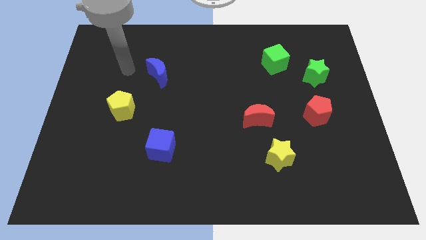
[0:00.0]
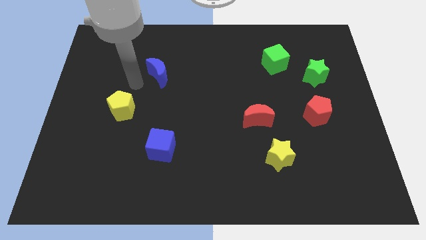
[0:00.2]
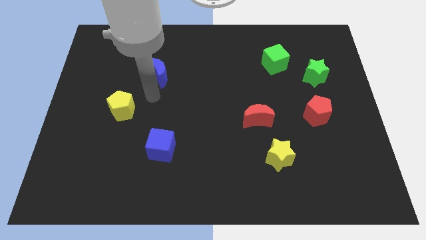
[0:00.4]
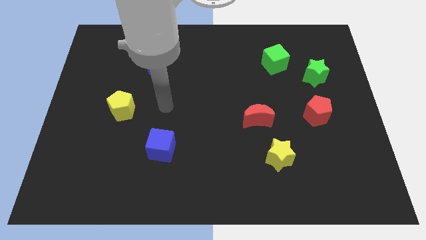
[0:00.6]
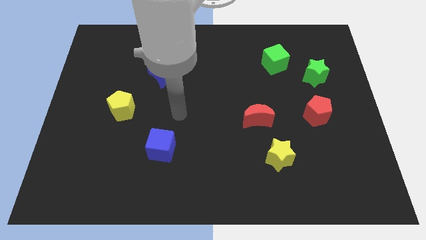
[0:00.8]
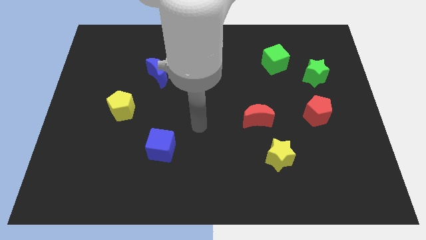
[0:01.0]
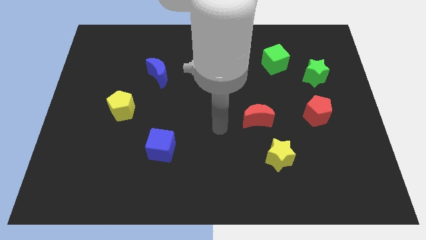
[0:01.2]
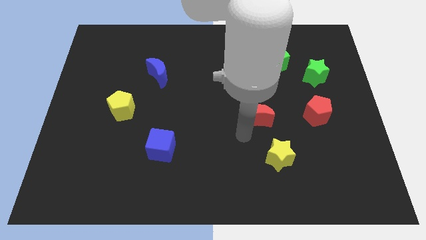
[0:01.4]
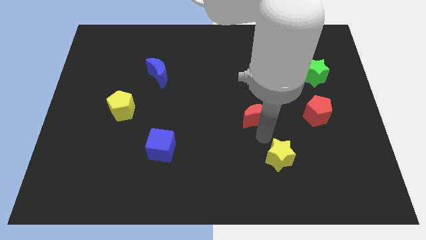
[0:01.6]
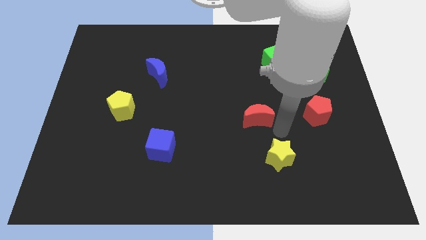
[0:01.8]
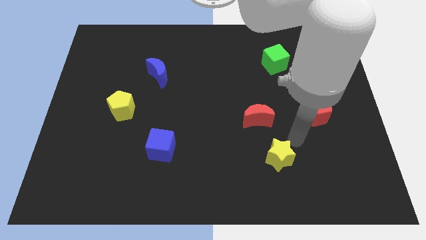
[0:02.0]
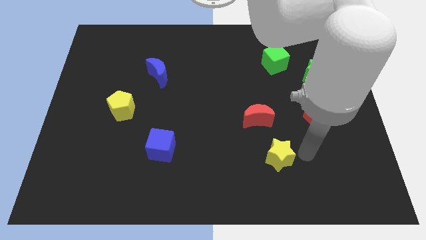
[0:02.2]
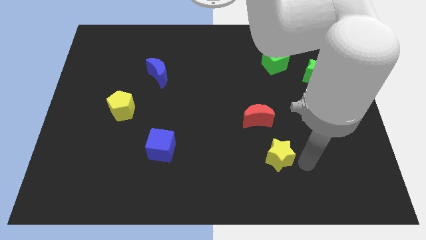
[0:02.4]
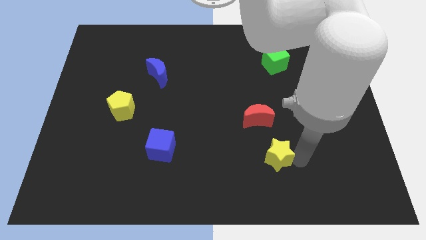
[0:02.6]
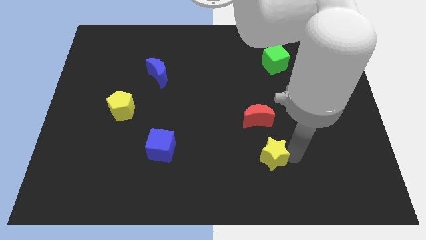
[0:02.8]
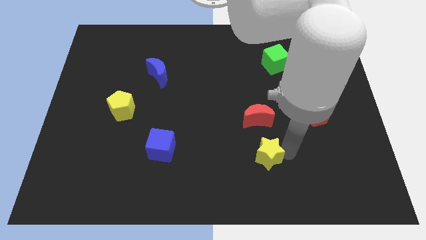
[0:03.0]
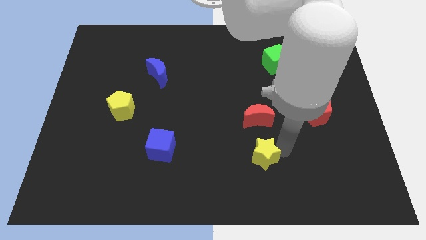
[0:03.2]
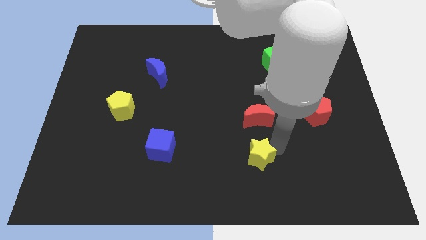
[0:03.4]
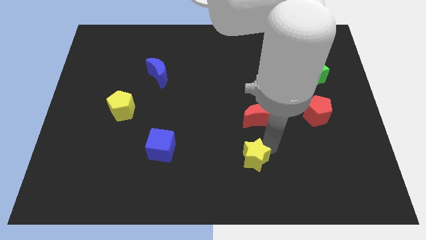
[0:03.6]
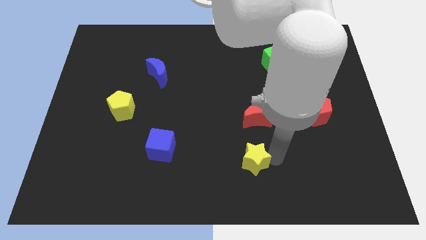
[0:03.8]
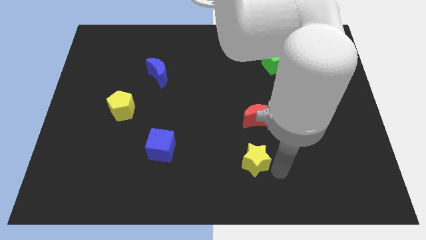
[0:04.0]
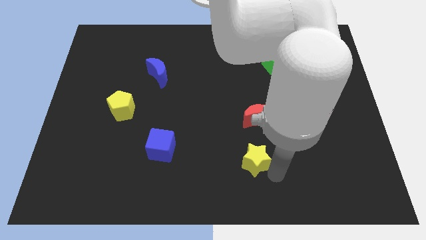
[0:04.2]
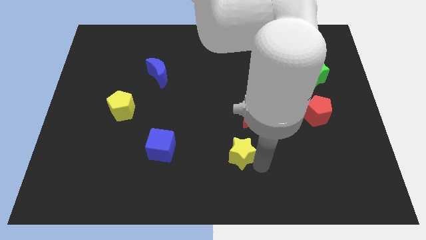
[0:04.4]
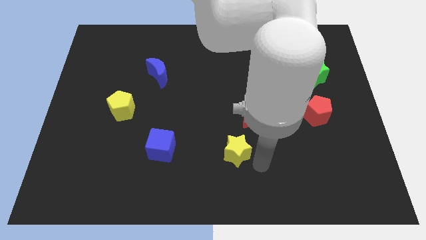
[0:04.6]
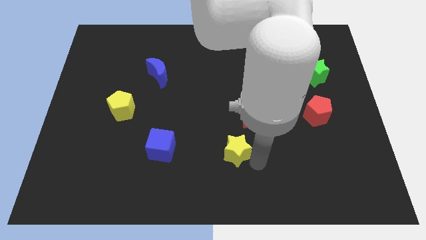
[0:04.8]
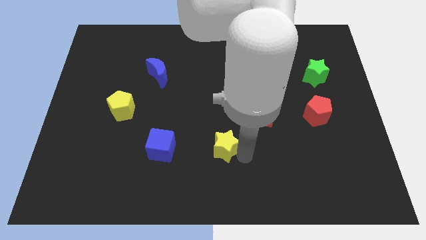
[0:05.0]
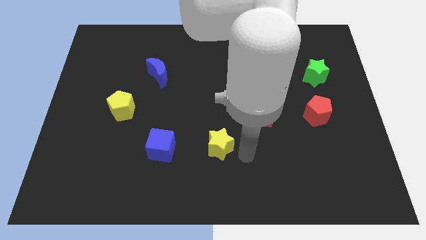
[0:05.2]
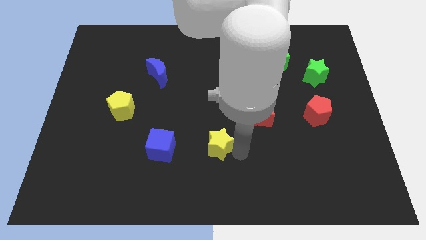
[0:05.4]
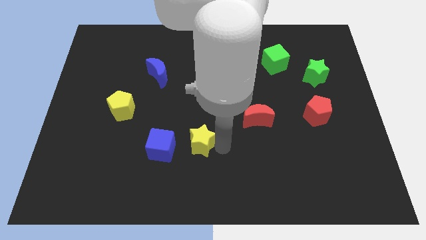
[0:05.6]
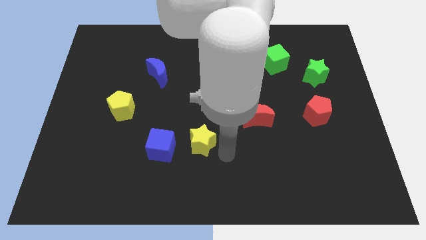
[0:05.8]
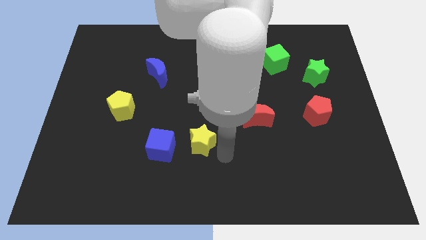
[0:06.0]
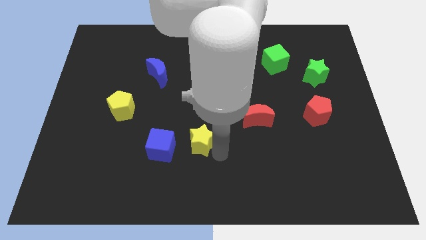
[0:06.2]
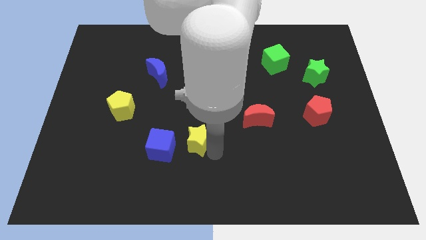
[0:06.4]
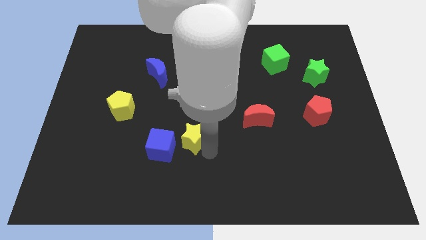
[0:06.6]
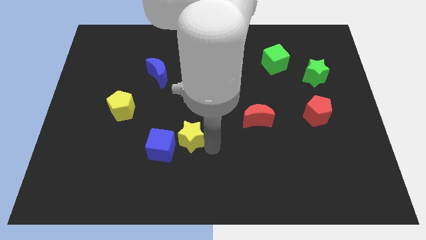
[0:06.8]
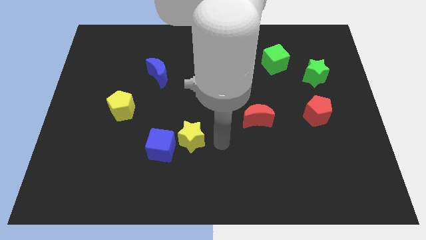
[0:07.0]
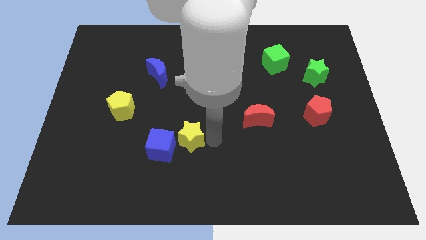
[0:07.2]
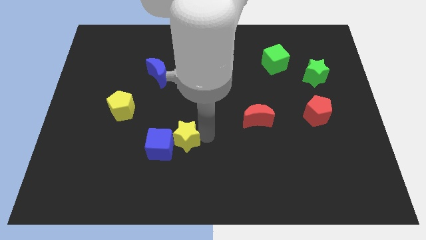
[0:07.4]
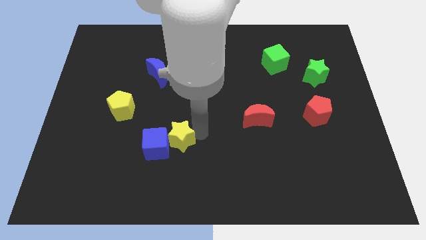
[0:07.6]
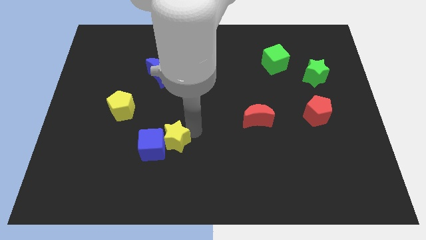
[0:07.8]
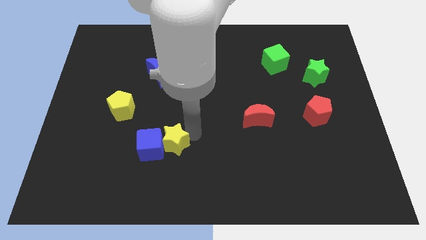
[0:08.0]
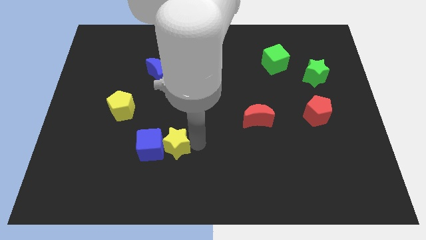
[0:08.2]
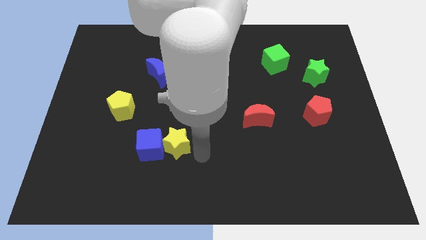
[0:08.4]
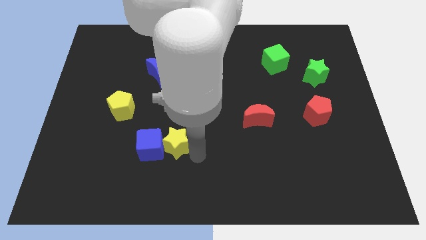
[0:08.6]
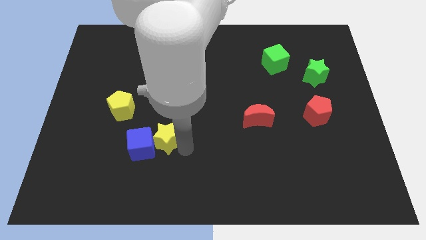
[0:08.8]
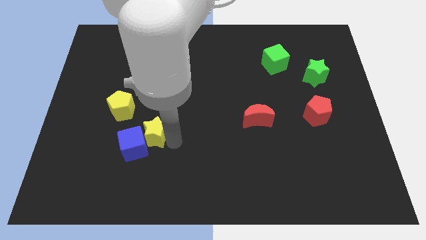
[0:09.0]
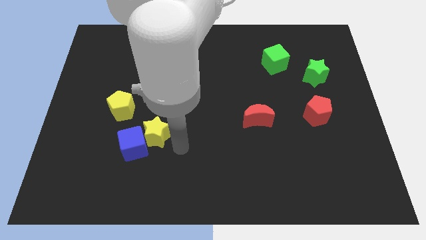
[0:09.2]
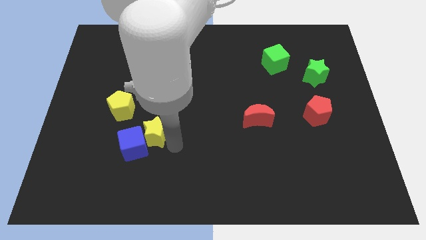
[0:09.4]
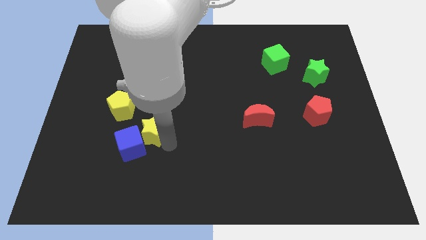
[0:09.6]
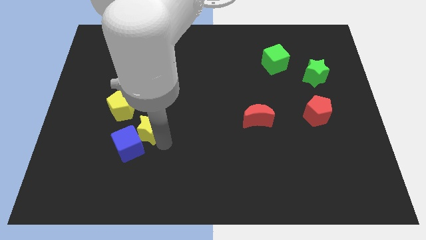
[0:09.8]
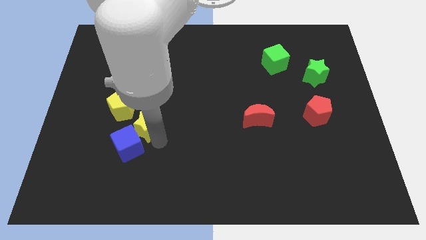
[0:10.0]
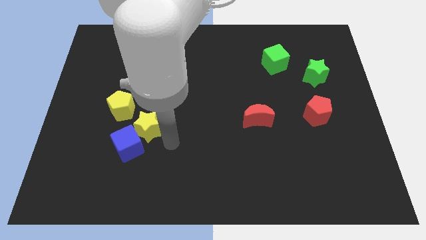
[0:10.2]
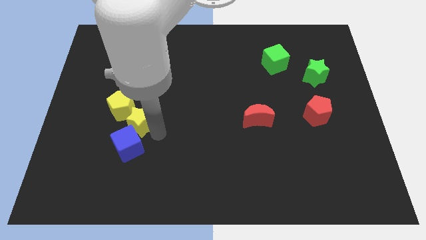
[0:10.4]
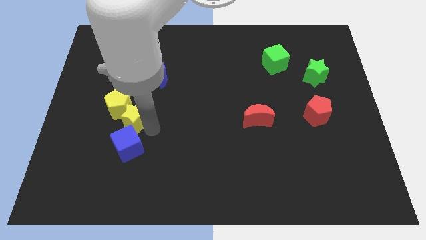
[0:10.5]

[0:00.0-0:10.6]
move the yellow star next to the yellow pentagon

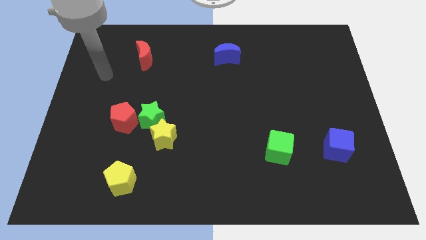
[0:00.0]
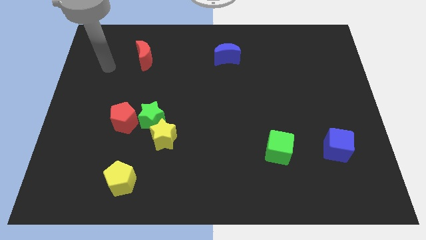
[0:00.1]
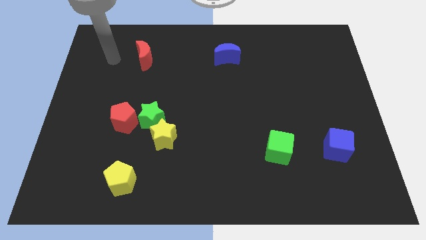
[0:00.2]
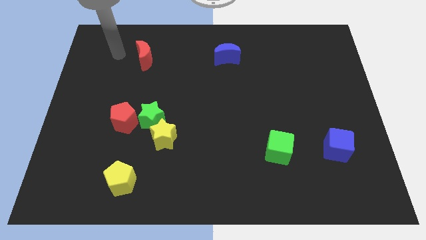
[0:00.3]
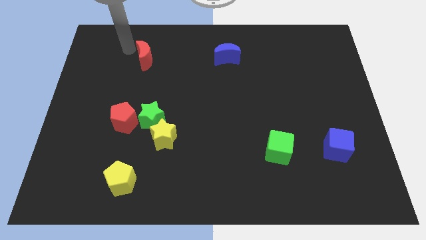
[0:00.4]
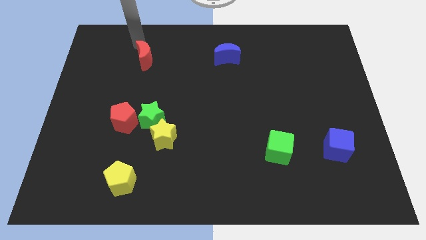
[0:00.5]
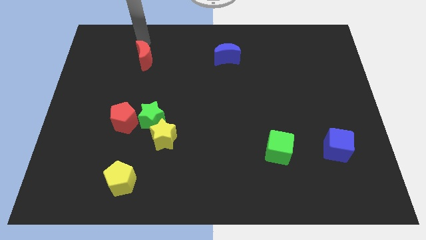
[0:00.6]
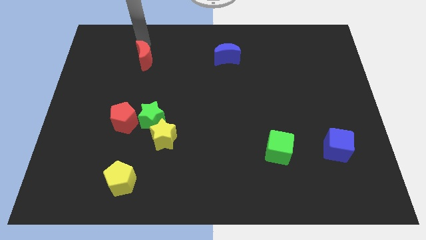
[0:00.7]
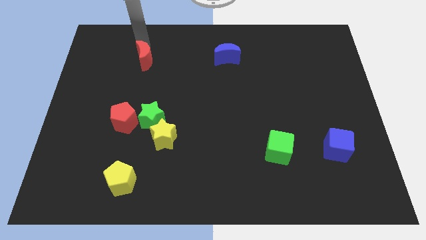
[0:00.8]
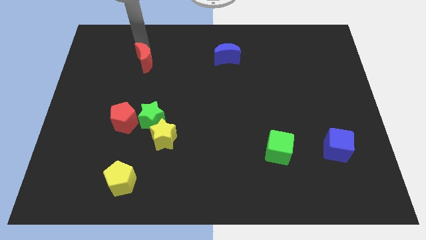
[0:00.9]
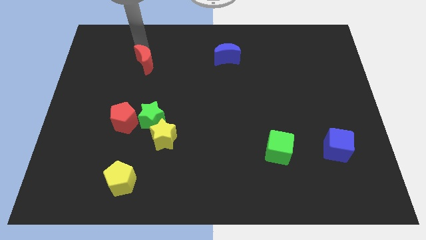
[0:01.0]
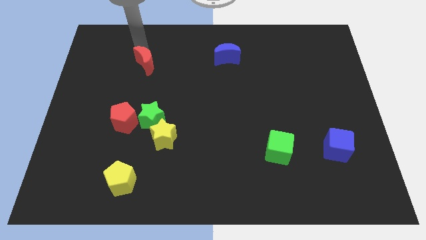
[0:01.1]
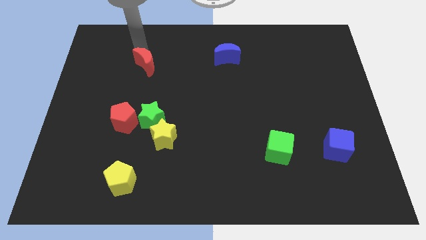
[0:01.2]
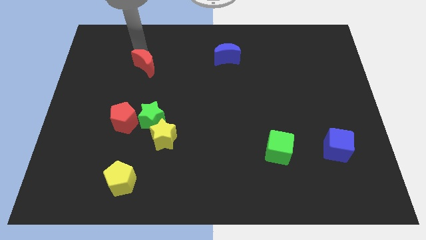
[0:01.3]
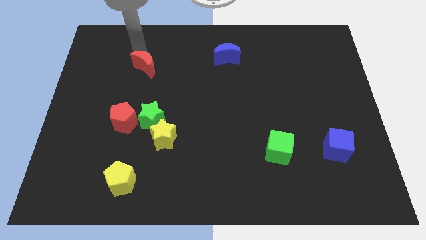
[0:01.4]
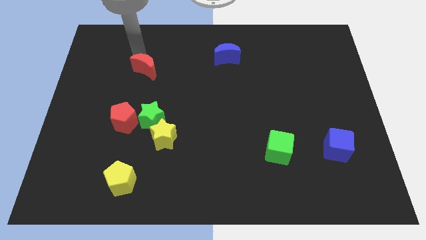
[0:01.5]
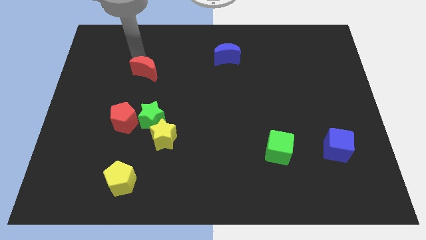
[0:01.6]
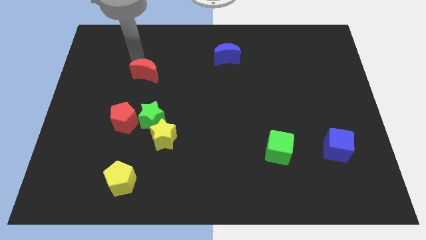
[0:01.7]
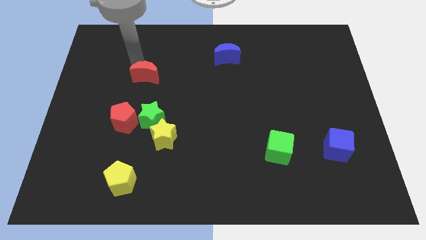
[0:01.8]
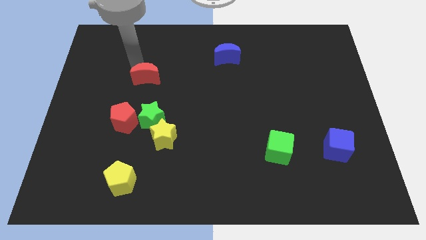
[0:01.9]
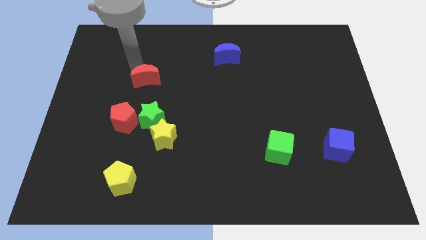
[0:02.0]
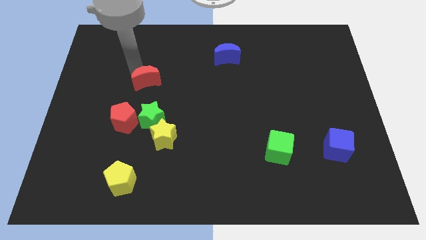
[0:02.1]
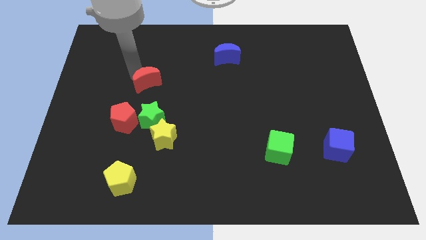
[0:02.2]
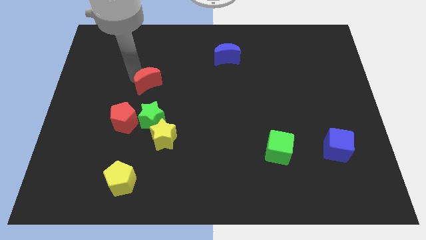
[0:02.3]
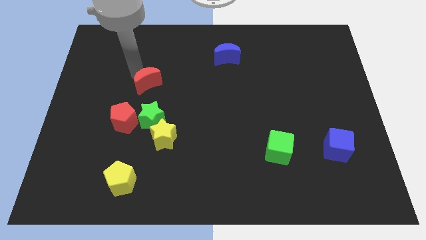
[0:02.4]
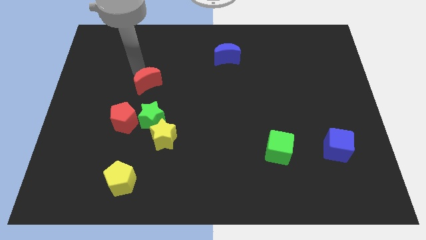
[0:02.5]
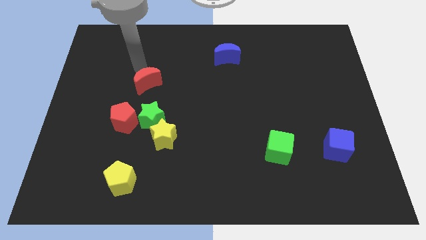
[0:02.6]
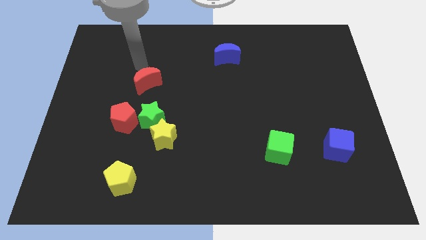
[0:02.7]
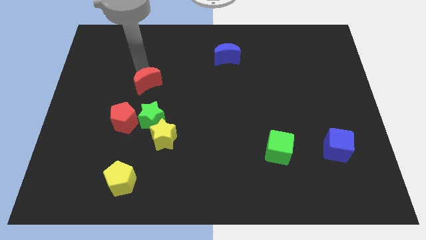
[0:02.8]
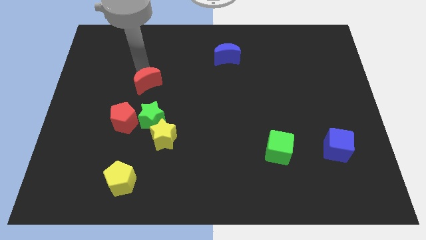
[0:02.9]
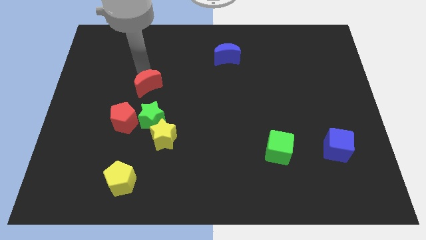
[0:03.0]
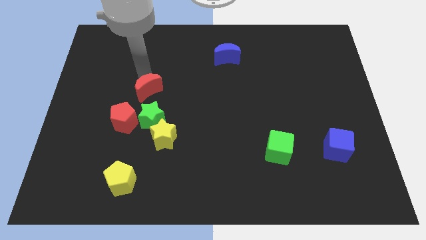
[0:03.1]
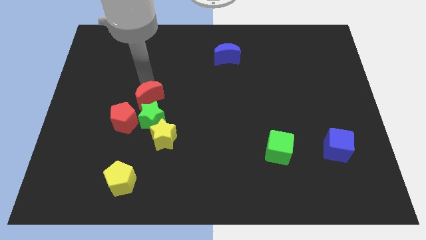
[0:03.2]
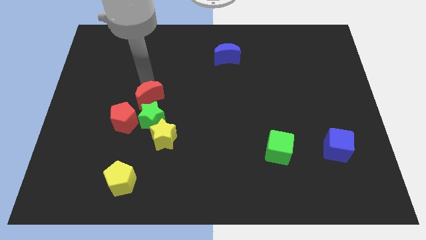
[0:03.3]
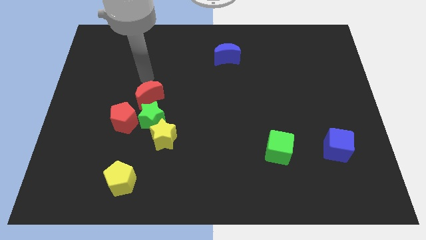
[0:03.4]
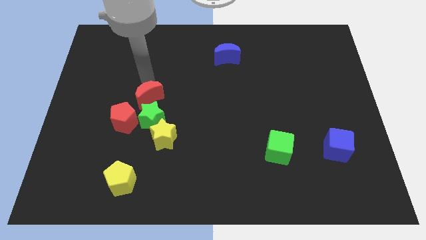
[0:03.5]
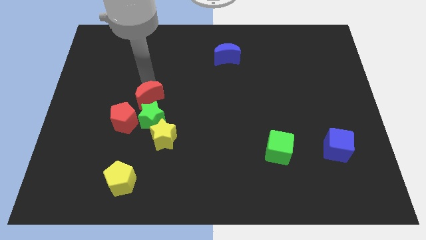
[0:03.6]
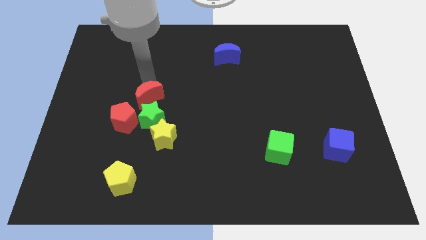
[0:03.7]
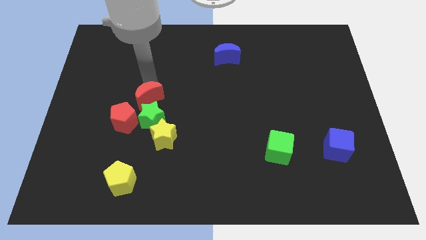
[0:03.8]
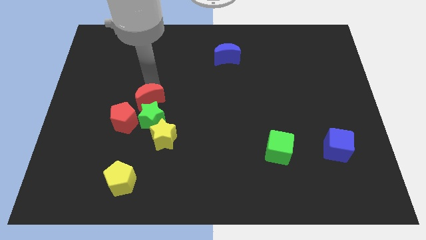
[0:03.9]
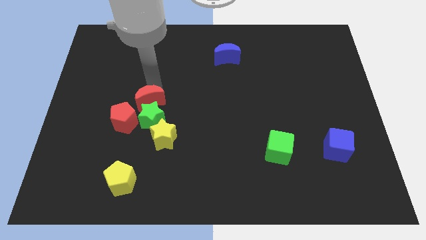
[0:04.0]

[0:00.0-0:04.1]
push the red moon close to the green star
